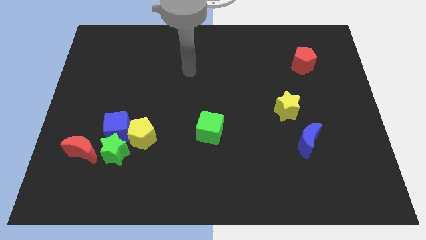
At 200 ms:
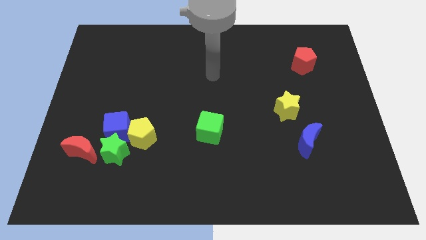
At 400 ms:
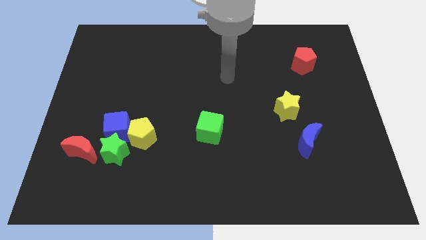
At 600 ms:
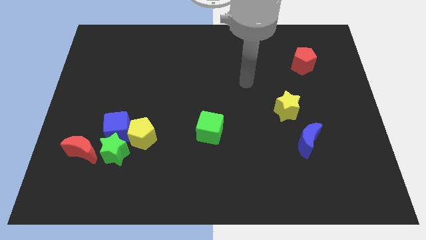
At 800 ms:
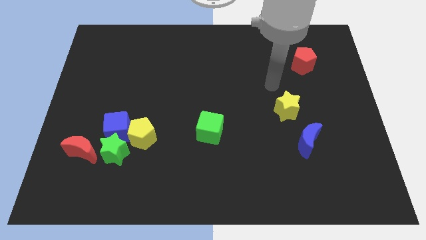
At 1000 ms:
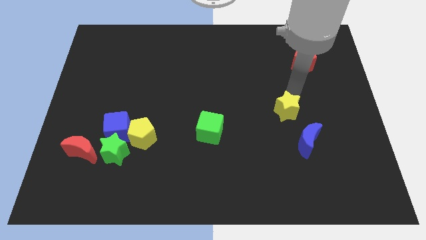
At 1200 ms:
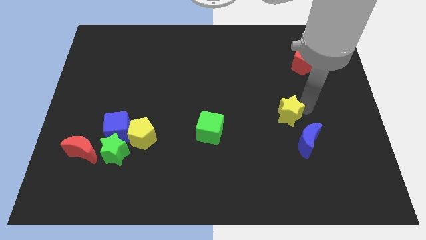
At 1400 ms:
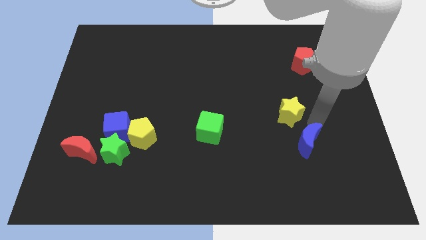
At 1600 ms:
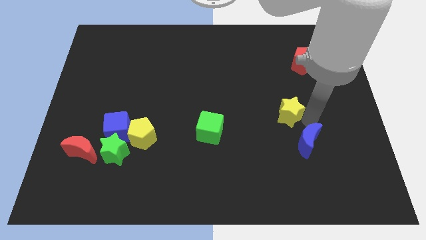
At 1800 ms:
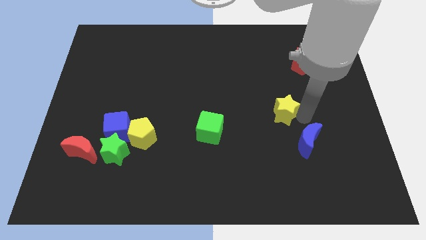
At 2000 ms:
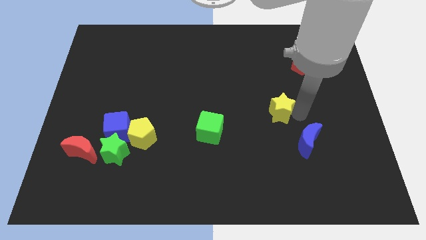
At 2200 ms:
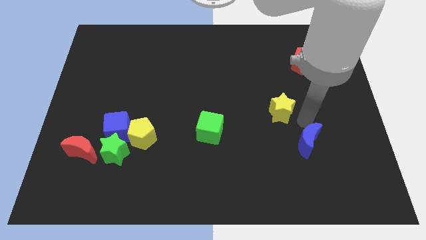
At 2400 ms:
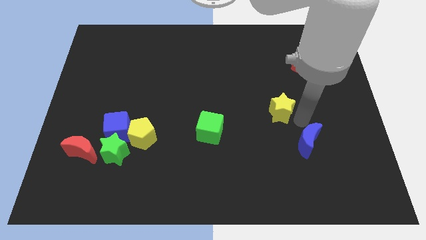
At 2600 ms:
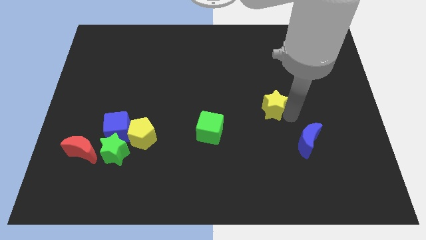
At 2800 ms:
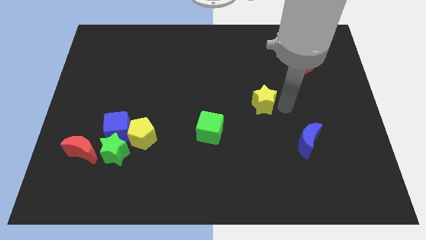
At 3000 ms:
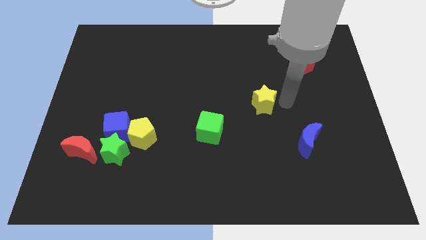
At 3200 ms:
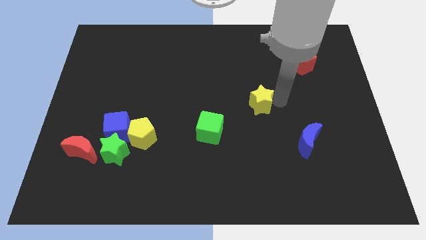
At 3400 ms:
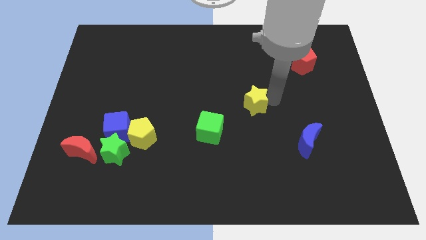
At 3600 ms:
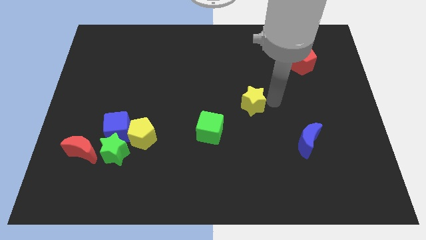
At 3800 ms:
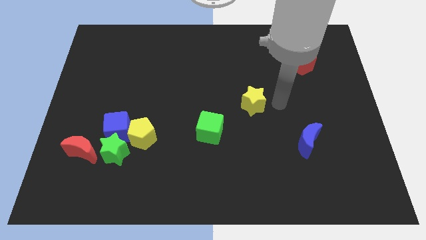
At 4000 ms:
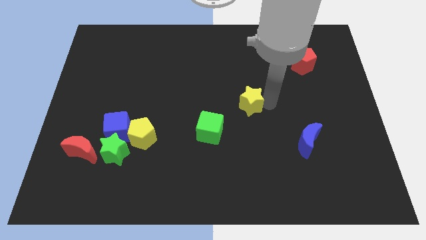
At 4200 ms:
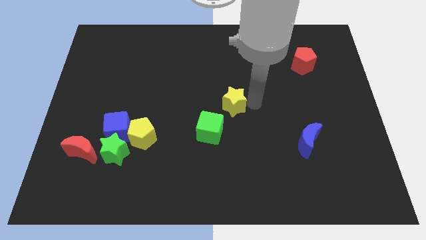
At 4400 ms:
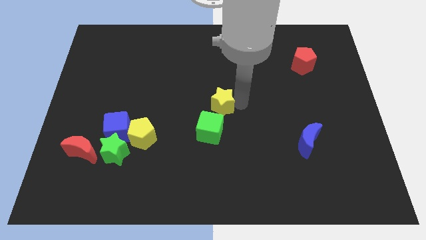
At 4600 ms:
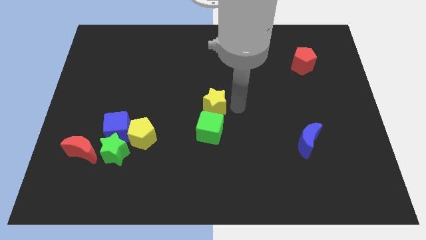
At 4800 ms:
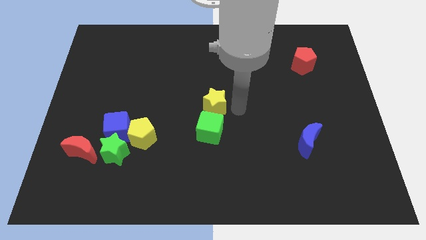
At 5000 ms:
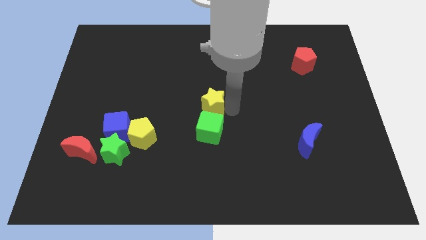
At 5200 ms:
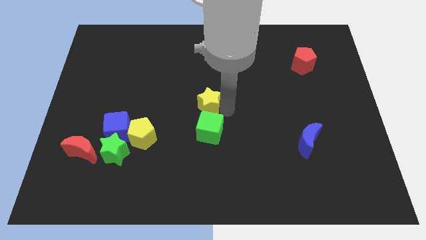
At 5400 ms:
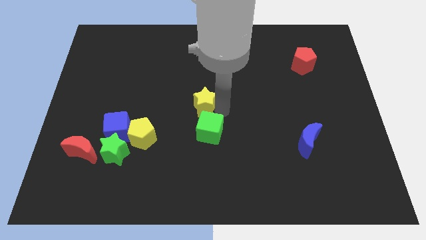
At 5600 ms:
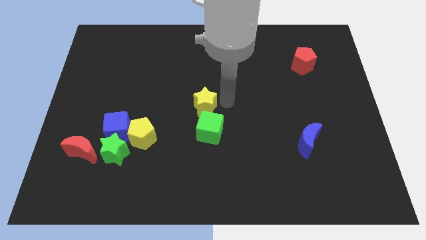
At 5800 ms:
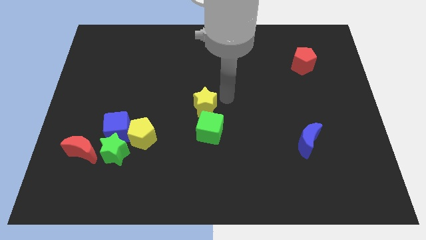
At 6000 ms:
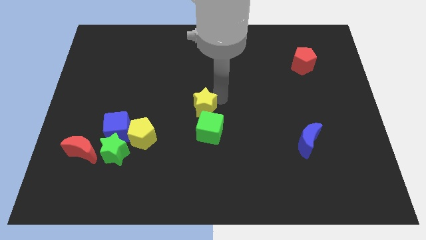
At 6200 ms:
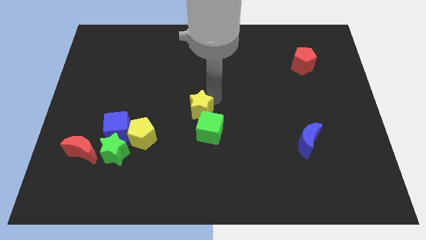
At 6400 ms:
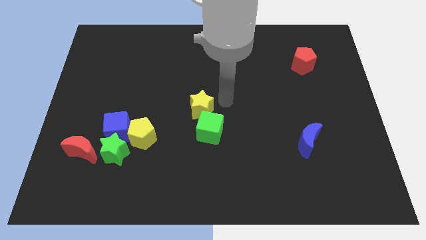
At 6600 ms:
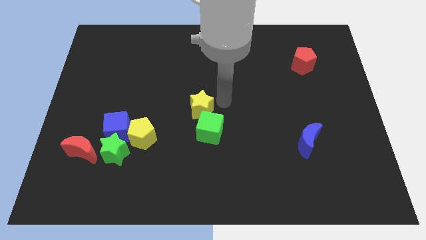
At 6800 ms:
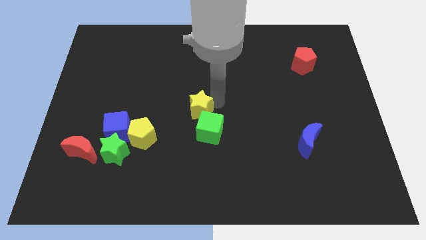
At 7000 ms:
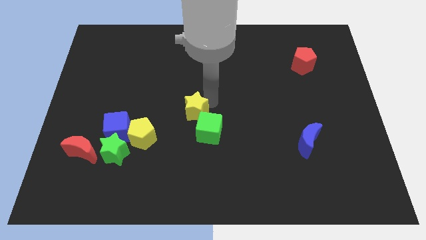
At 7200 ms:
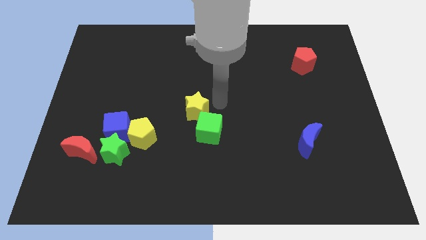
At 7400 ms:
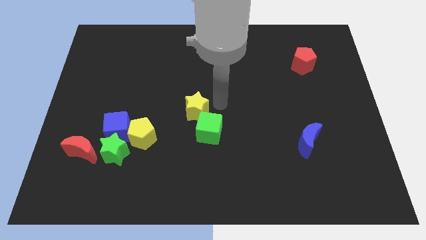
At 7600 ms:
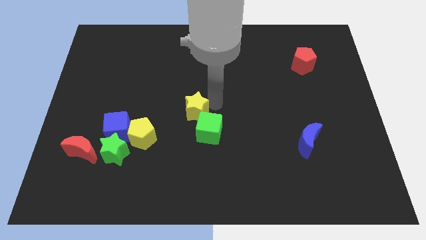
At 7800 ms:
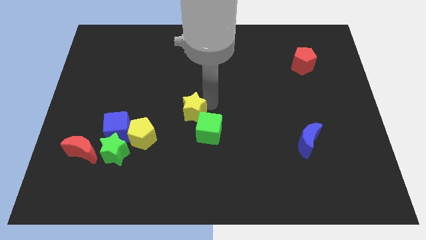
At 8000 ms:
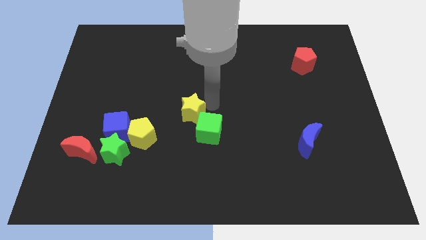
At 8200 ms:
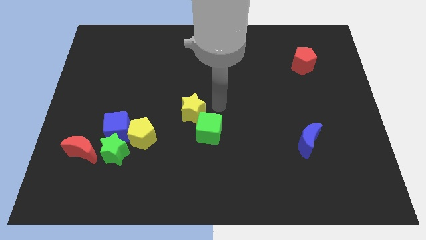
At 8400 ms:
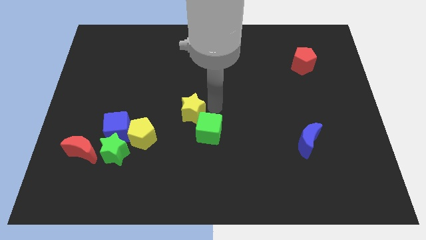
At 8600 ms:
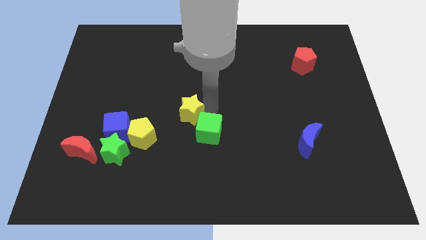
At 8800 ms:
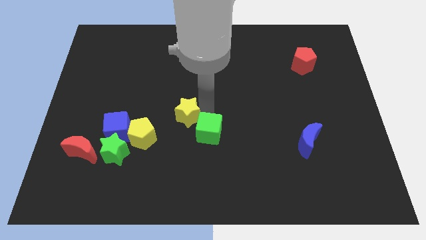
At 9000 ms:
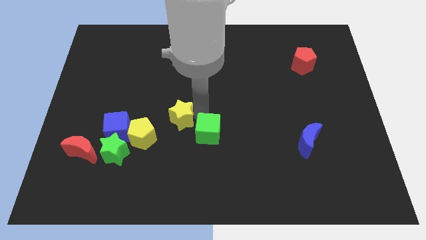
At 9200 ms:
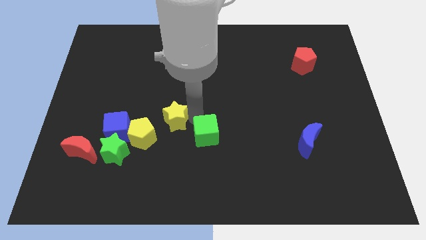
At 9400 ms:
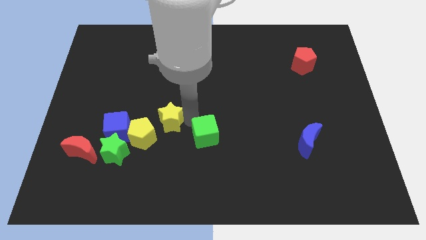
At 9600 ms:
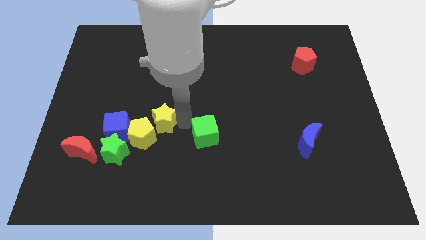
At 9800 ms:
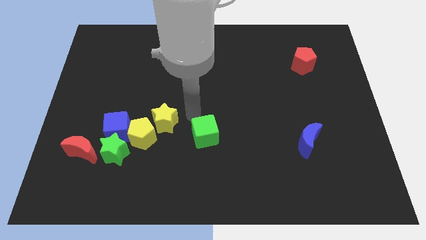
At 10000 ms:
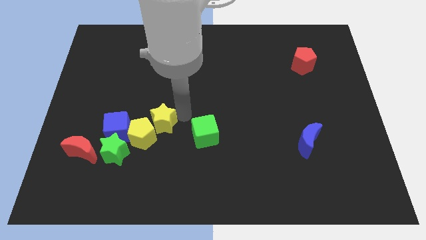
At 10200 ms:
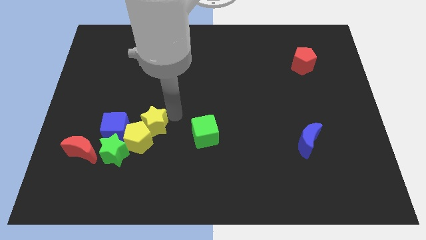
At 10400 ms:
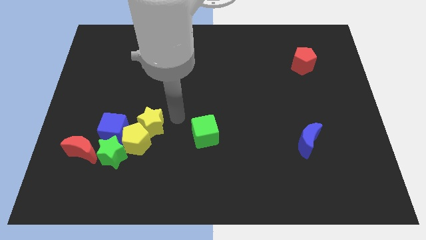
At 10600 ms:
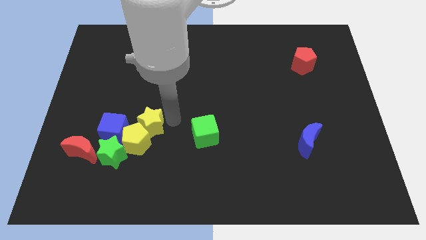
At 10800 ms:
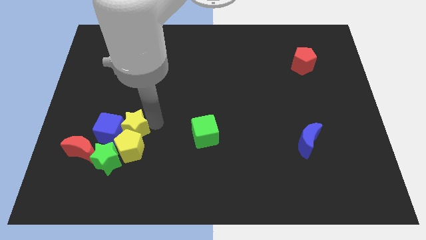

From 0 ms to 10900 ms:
put the yellow star close to the blue cube

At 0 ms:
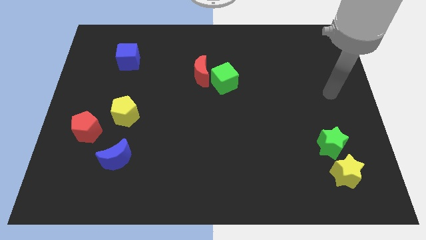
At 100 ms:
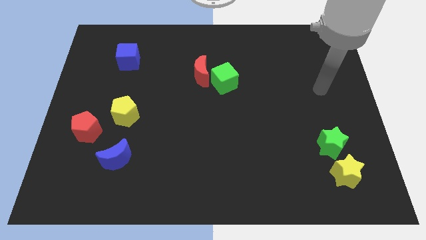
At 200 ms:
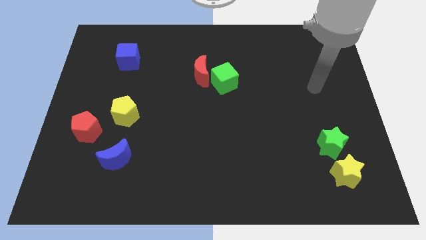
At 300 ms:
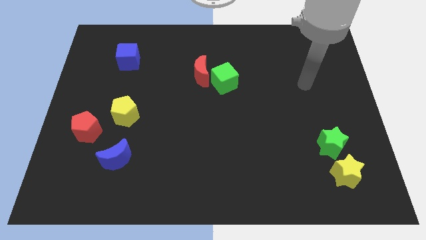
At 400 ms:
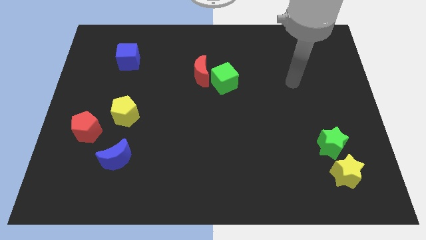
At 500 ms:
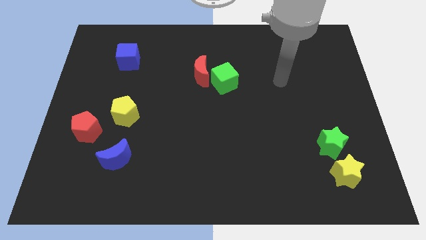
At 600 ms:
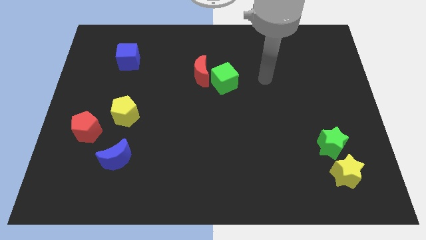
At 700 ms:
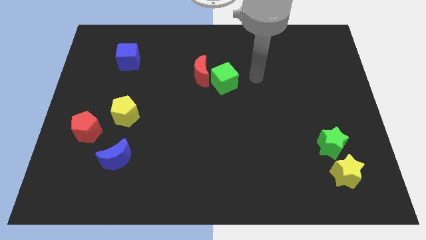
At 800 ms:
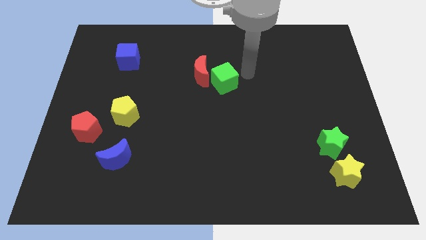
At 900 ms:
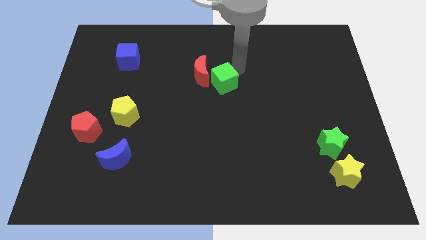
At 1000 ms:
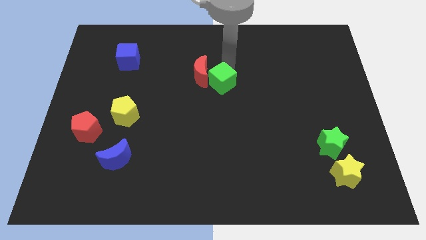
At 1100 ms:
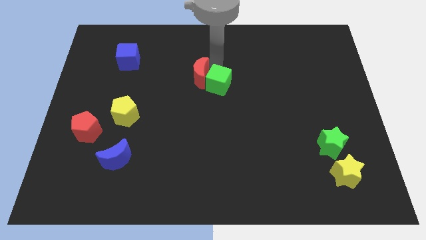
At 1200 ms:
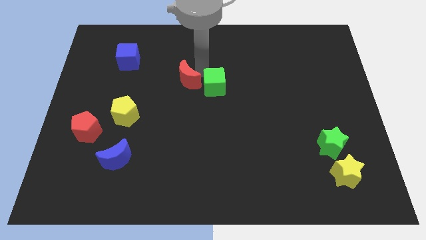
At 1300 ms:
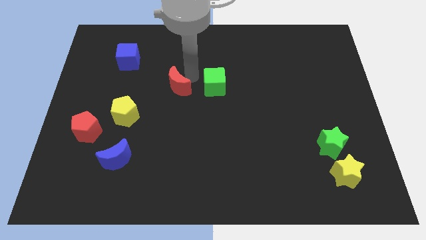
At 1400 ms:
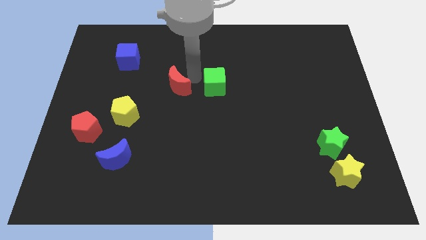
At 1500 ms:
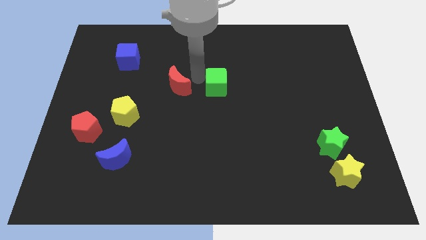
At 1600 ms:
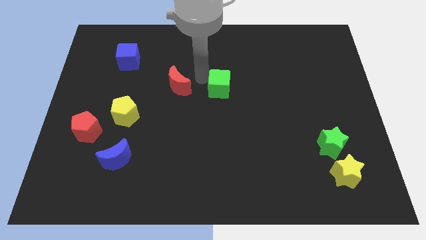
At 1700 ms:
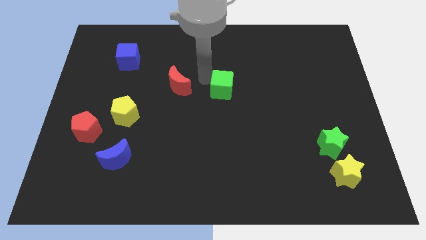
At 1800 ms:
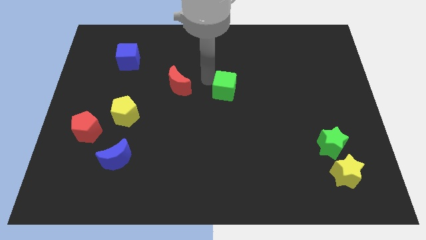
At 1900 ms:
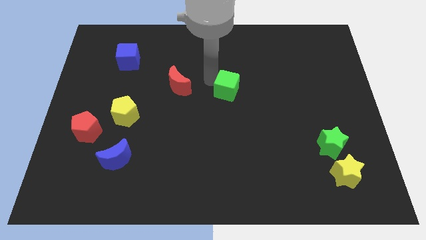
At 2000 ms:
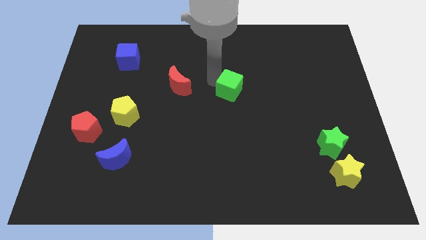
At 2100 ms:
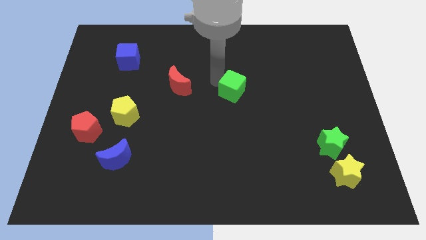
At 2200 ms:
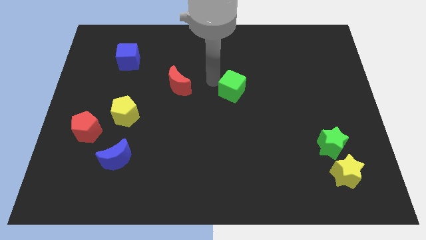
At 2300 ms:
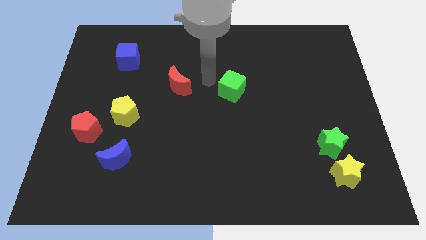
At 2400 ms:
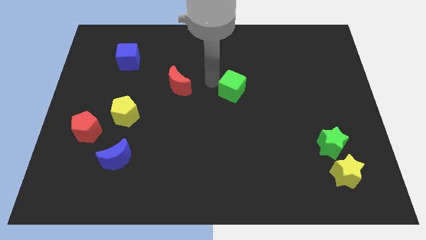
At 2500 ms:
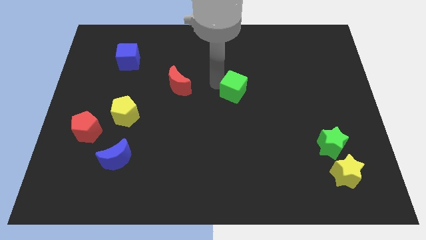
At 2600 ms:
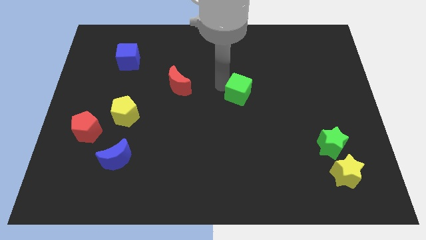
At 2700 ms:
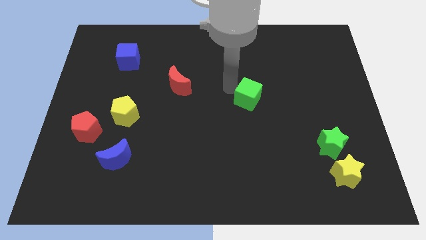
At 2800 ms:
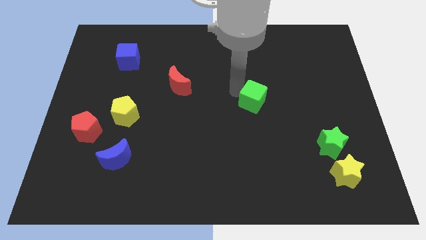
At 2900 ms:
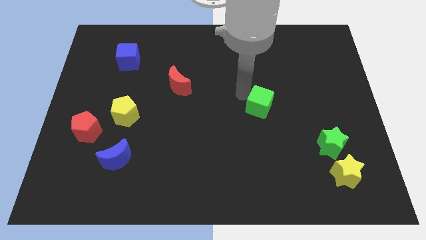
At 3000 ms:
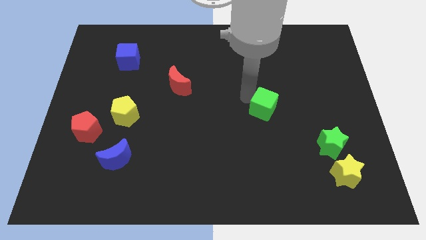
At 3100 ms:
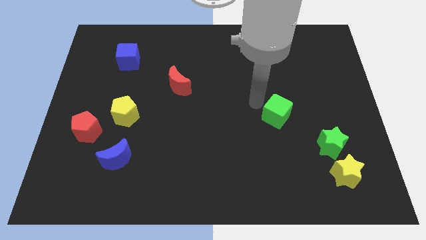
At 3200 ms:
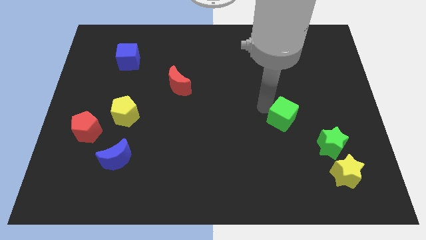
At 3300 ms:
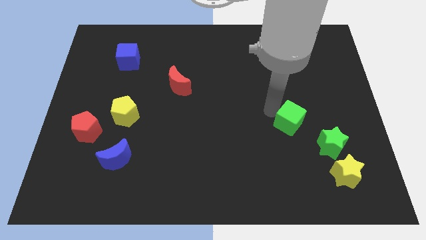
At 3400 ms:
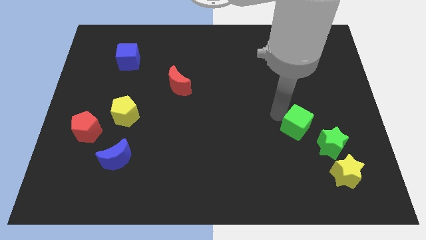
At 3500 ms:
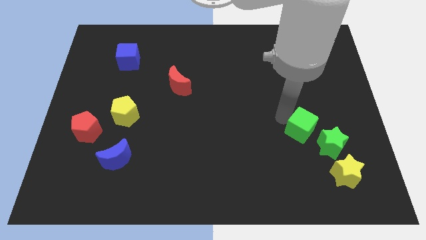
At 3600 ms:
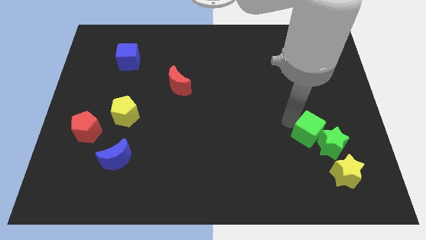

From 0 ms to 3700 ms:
put the green cube to the green star
